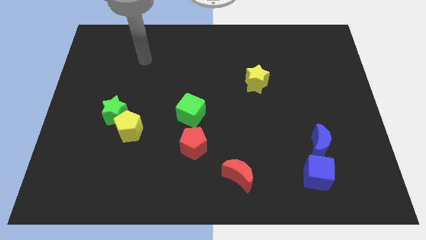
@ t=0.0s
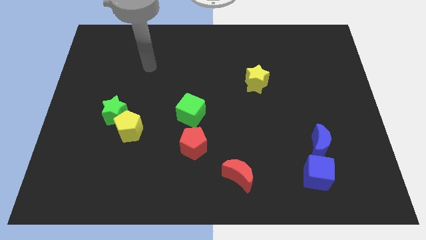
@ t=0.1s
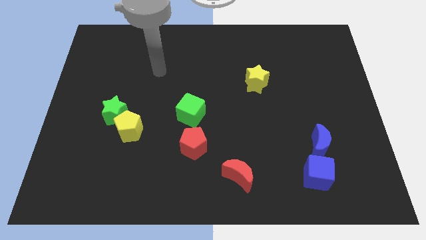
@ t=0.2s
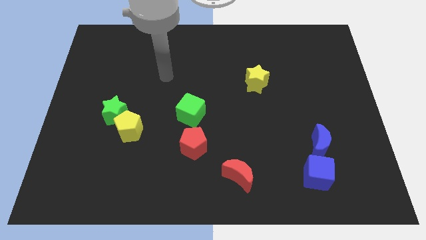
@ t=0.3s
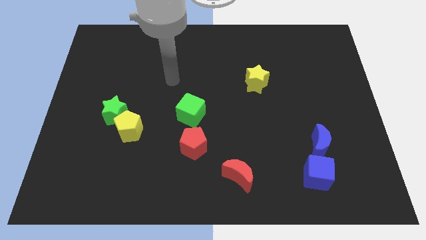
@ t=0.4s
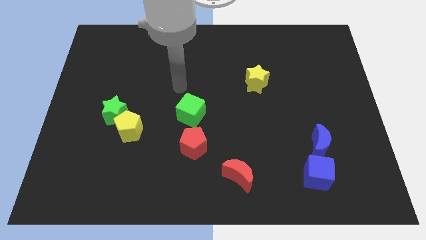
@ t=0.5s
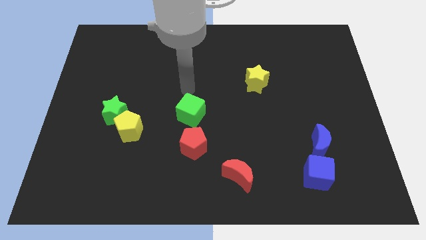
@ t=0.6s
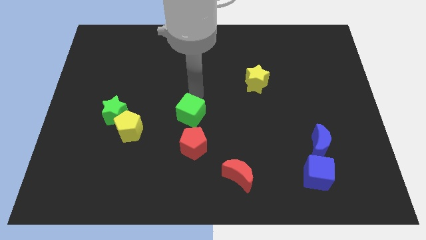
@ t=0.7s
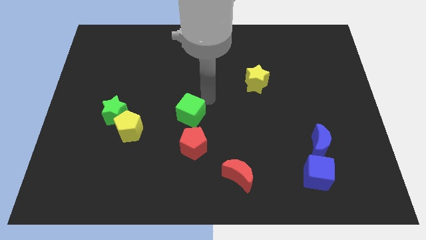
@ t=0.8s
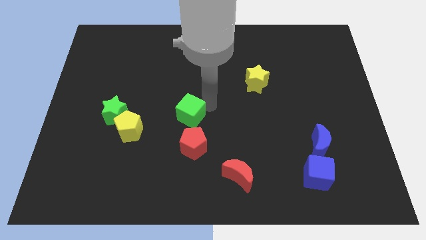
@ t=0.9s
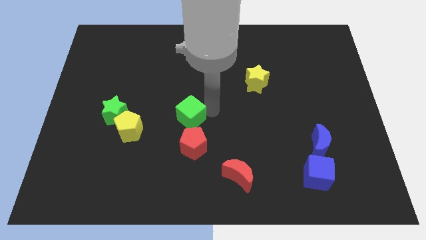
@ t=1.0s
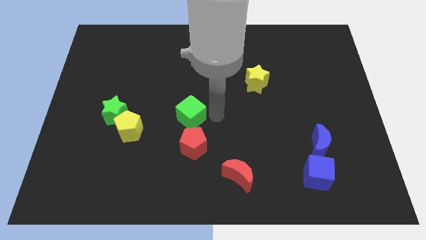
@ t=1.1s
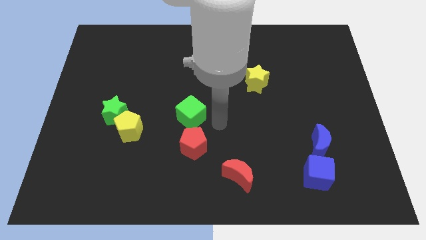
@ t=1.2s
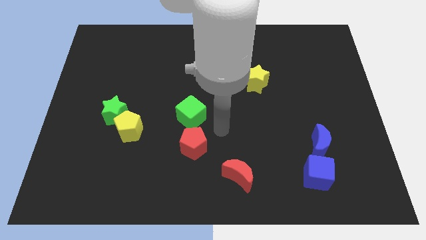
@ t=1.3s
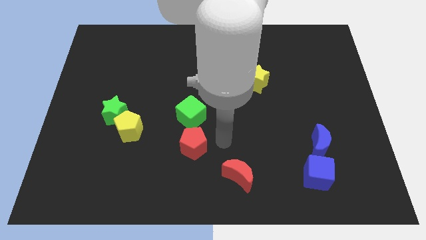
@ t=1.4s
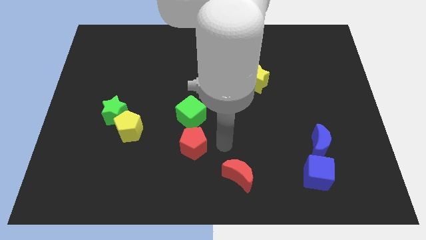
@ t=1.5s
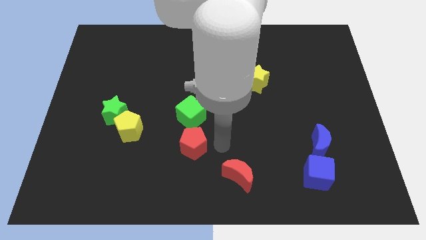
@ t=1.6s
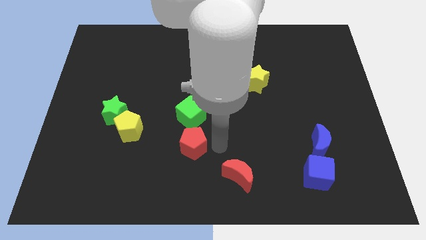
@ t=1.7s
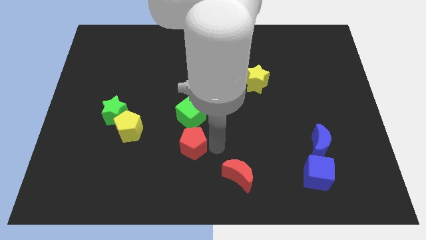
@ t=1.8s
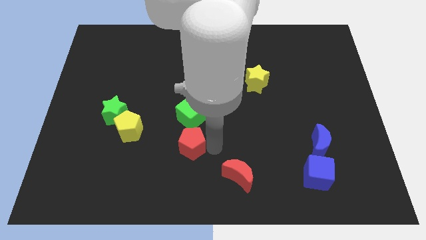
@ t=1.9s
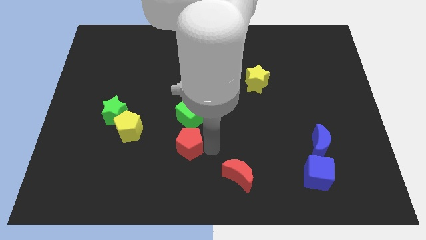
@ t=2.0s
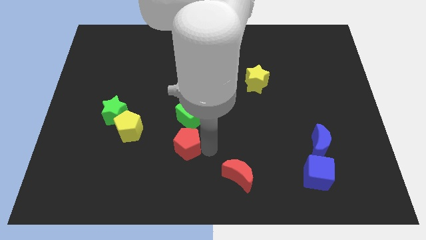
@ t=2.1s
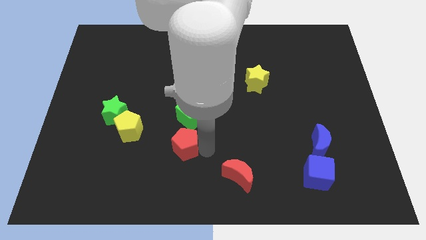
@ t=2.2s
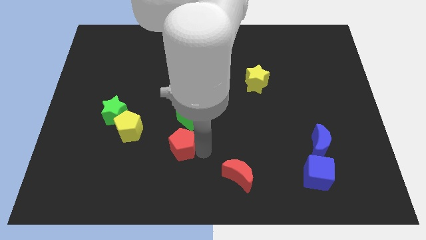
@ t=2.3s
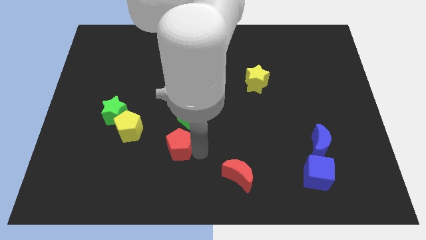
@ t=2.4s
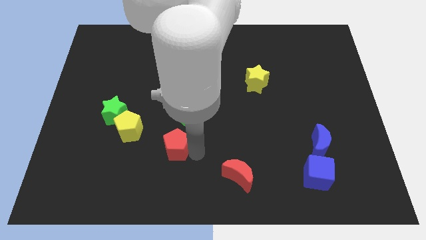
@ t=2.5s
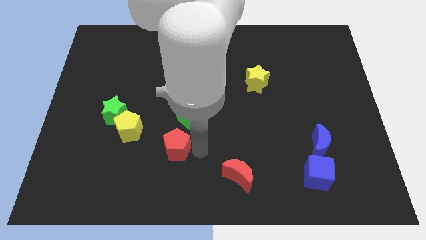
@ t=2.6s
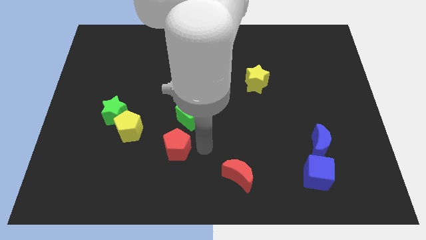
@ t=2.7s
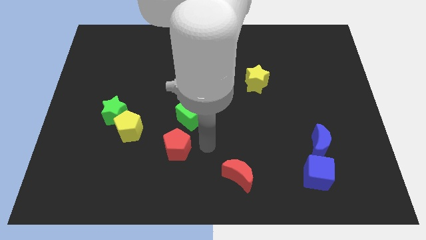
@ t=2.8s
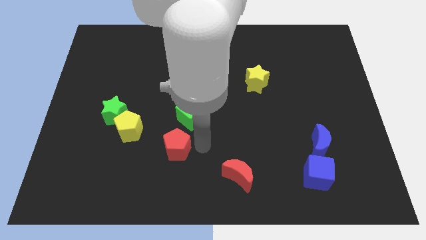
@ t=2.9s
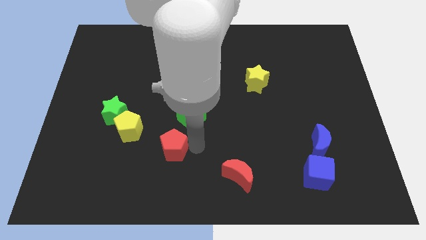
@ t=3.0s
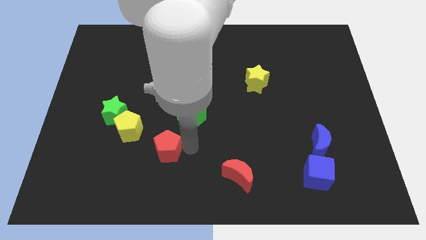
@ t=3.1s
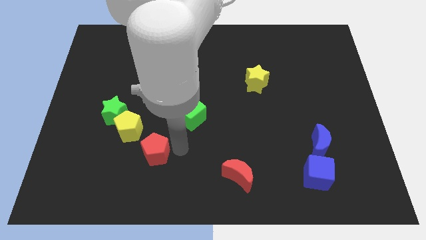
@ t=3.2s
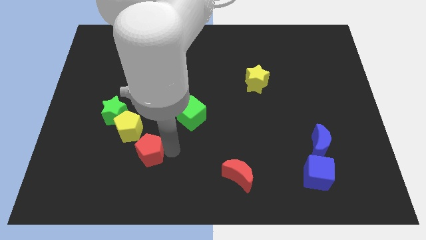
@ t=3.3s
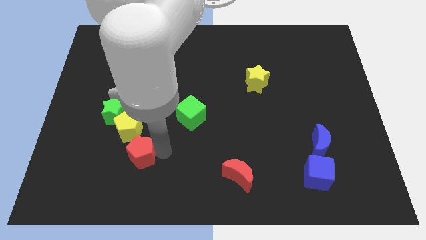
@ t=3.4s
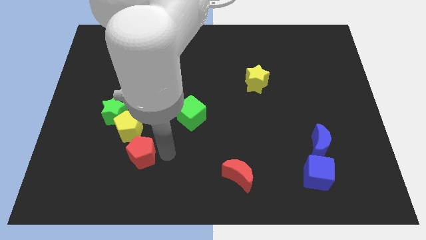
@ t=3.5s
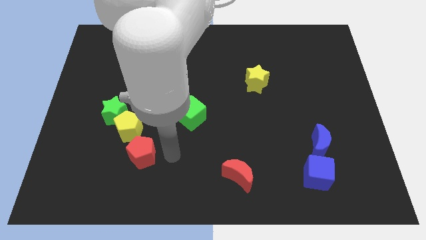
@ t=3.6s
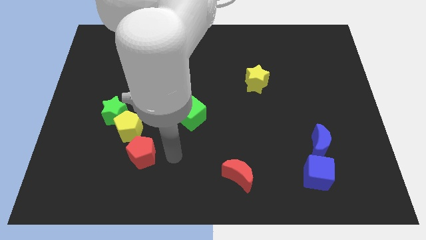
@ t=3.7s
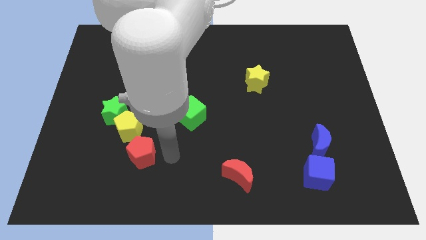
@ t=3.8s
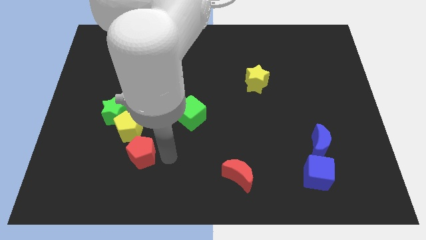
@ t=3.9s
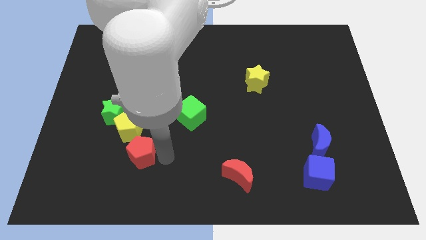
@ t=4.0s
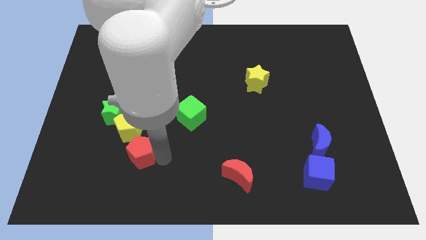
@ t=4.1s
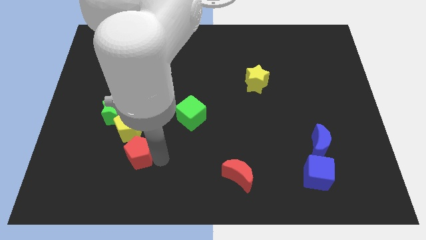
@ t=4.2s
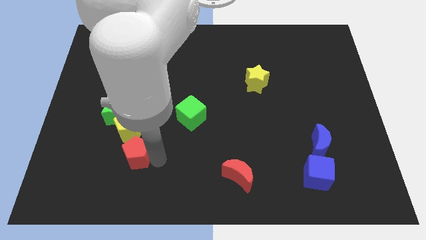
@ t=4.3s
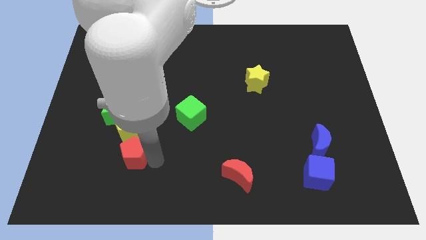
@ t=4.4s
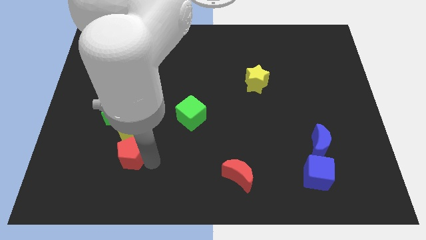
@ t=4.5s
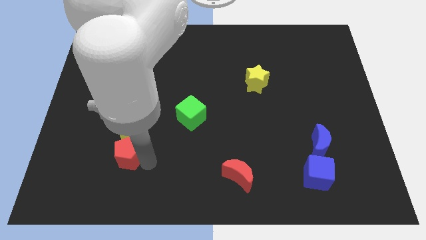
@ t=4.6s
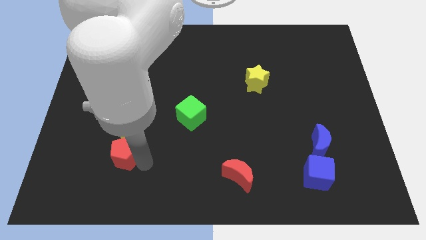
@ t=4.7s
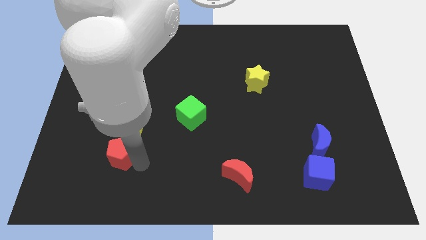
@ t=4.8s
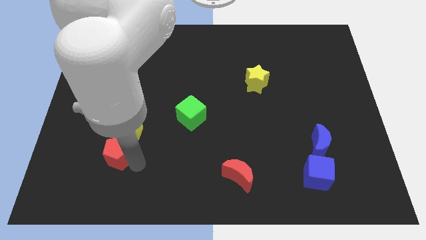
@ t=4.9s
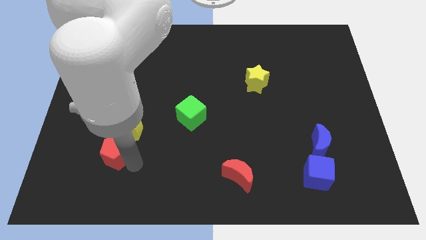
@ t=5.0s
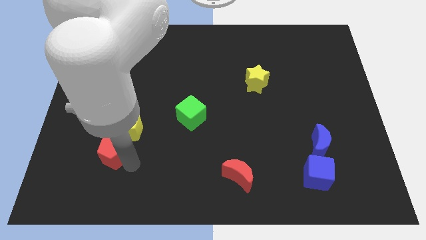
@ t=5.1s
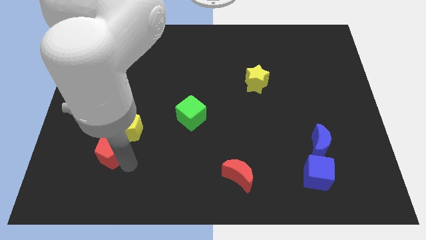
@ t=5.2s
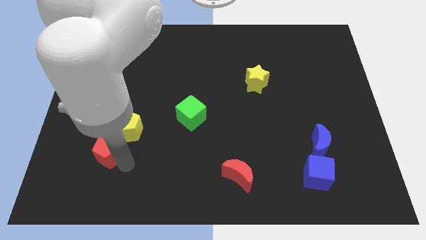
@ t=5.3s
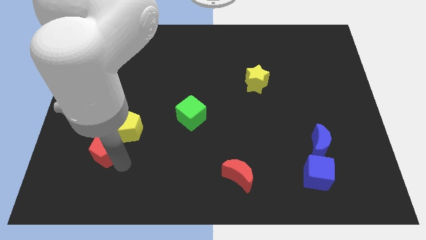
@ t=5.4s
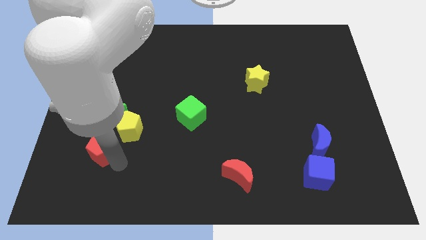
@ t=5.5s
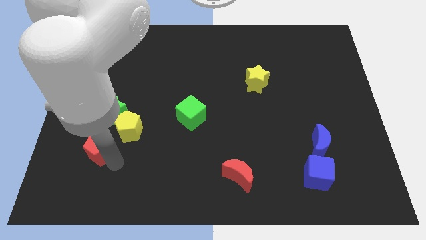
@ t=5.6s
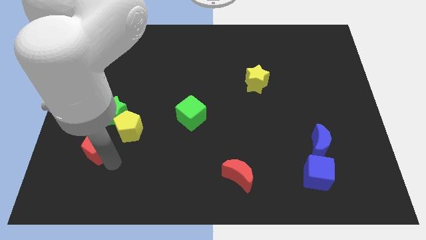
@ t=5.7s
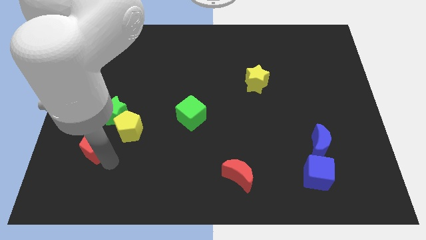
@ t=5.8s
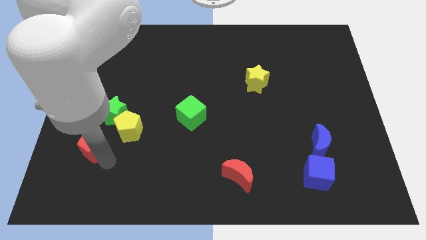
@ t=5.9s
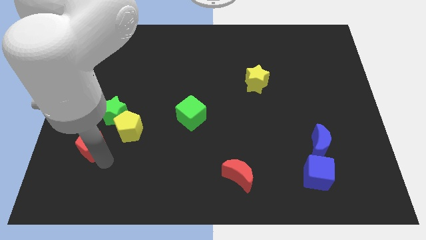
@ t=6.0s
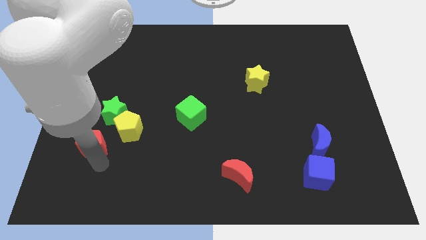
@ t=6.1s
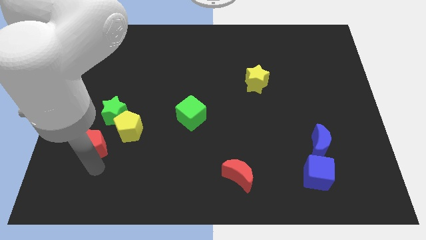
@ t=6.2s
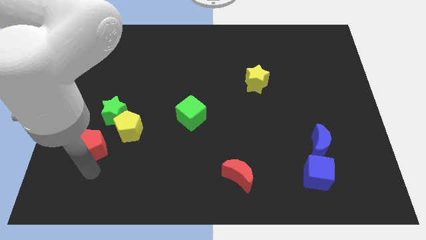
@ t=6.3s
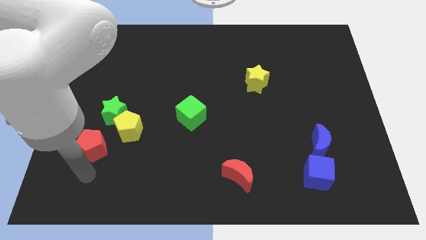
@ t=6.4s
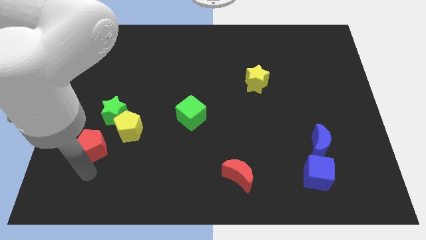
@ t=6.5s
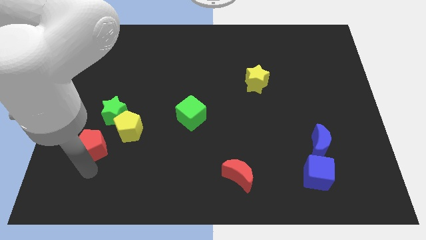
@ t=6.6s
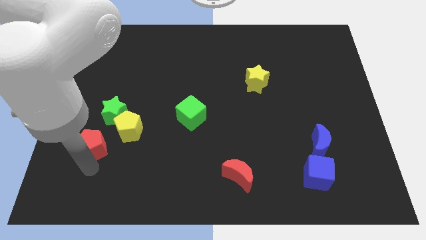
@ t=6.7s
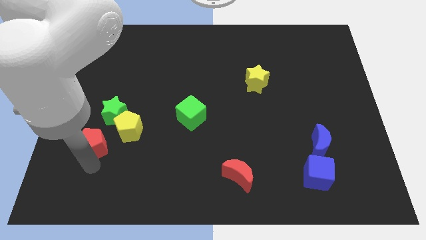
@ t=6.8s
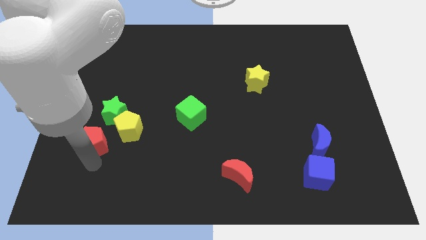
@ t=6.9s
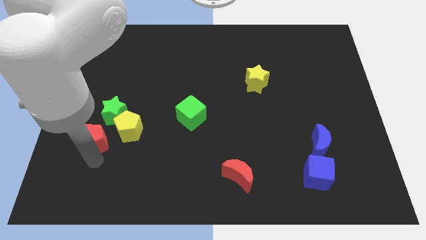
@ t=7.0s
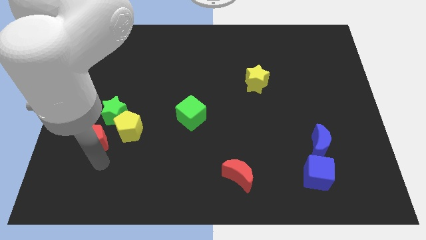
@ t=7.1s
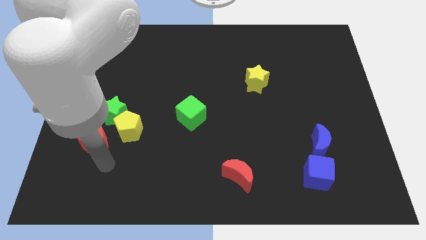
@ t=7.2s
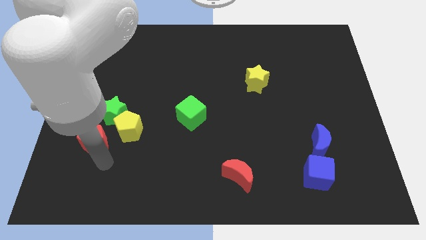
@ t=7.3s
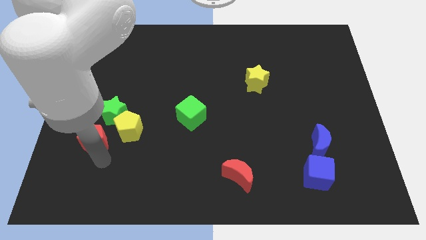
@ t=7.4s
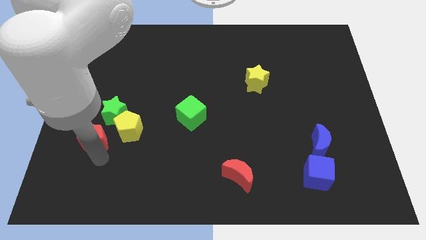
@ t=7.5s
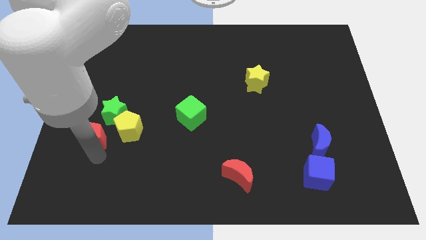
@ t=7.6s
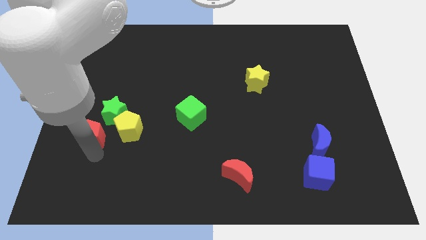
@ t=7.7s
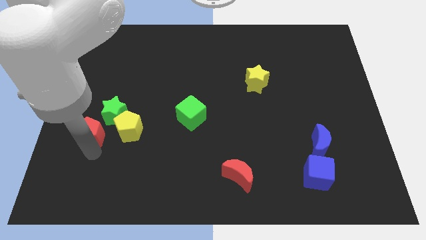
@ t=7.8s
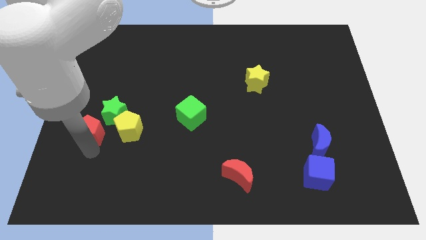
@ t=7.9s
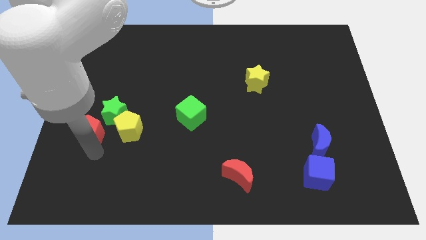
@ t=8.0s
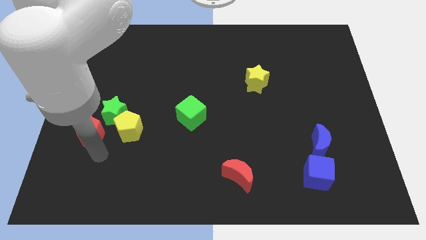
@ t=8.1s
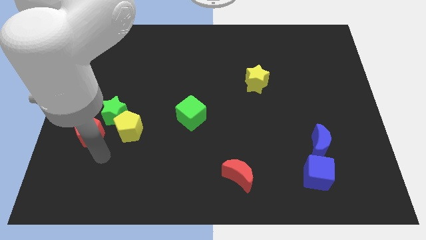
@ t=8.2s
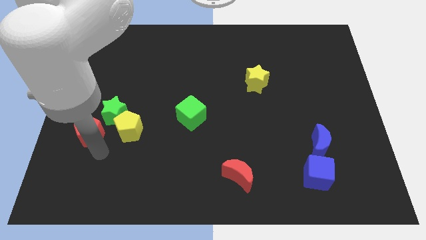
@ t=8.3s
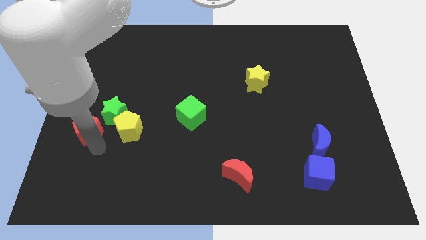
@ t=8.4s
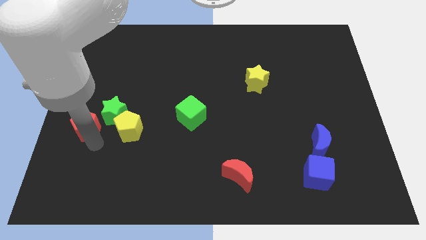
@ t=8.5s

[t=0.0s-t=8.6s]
put the red pentagon to the left side of the board
